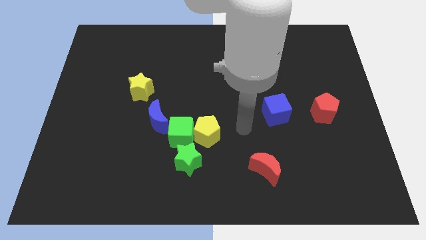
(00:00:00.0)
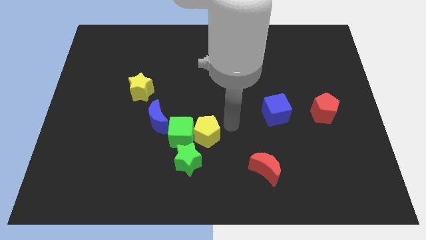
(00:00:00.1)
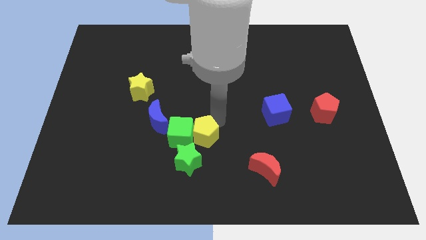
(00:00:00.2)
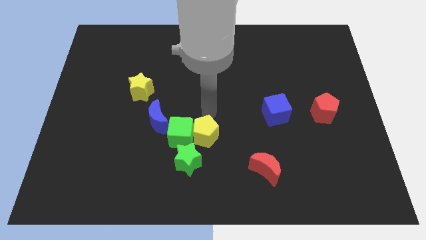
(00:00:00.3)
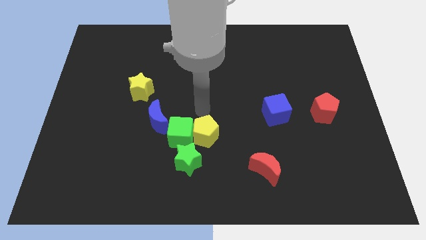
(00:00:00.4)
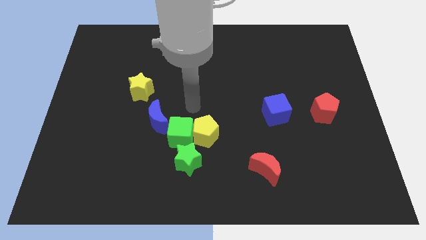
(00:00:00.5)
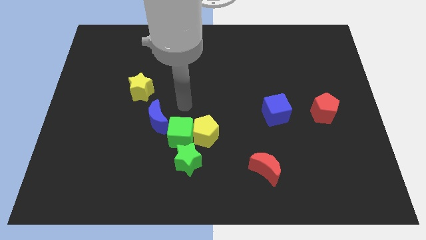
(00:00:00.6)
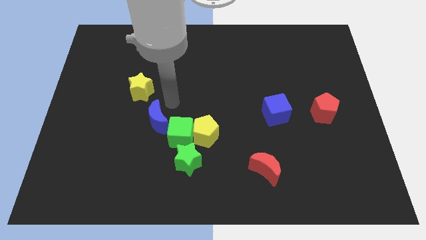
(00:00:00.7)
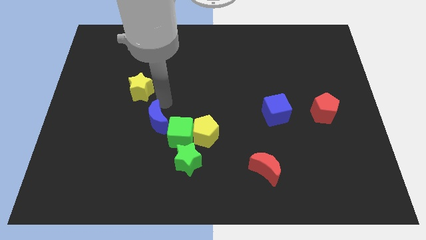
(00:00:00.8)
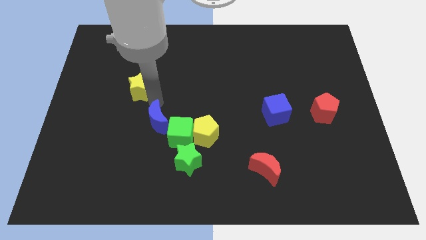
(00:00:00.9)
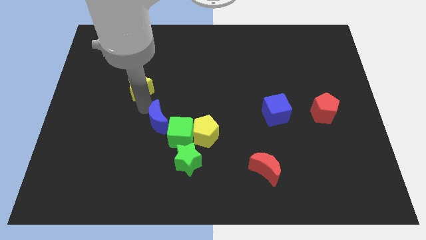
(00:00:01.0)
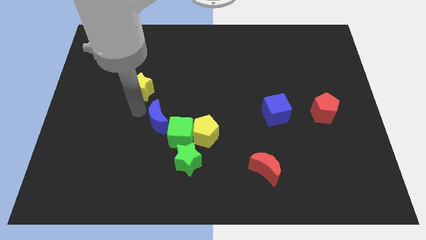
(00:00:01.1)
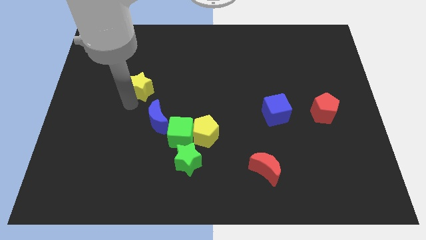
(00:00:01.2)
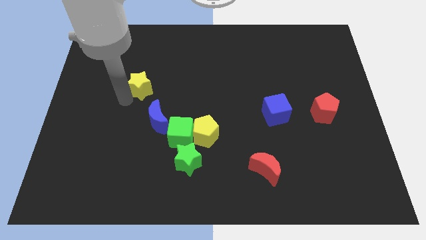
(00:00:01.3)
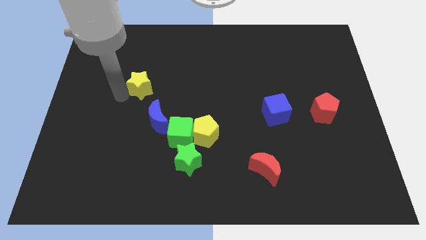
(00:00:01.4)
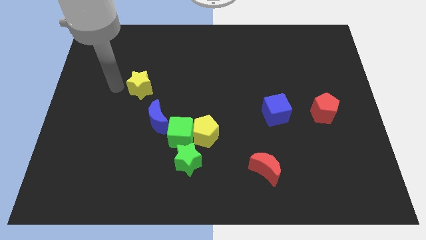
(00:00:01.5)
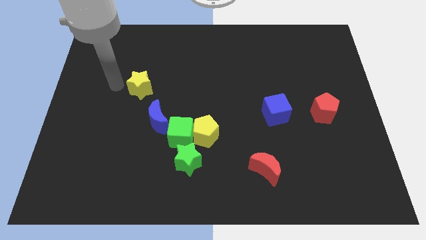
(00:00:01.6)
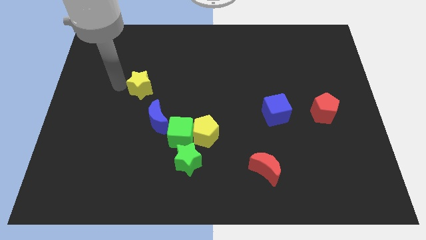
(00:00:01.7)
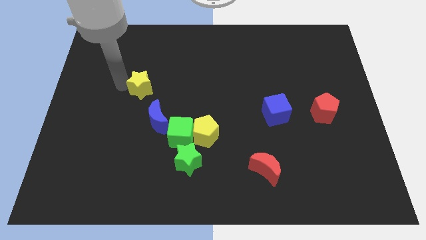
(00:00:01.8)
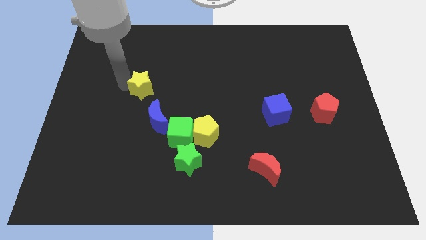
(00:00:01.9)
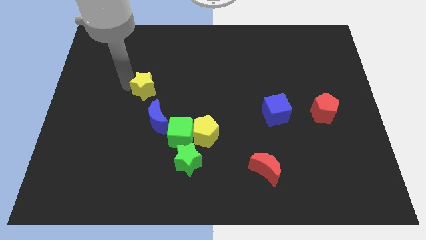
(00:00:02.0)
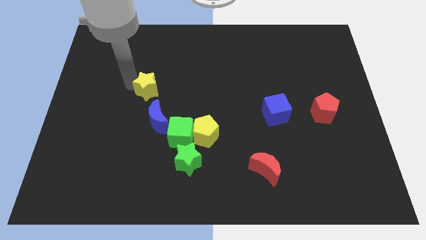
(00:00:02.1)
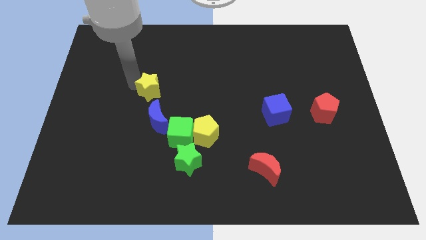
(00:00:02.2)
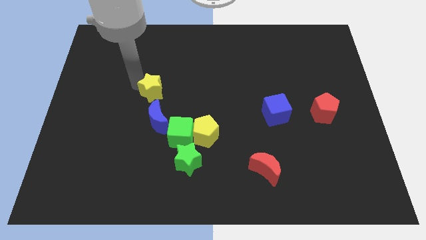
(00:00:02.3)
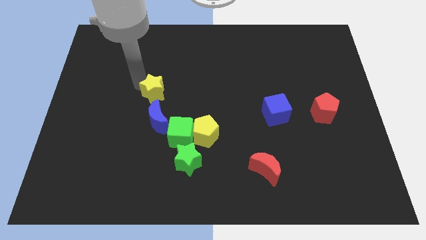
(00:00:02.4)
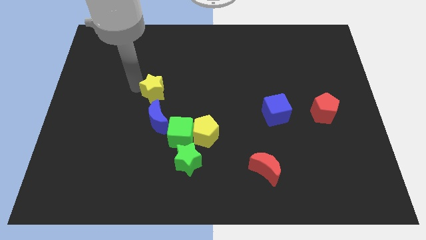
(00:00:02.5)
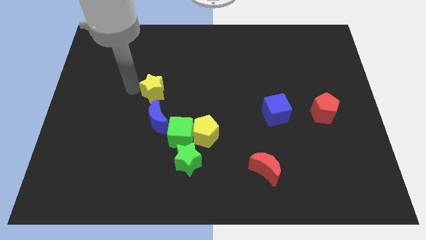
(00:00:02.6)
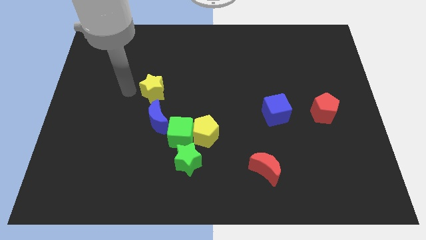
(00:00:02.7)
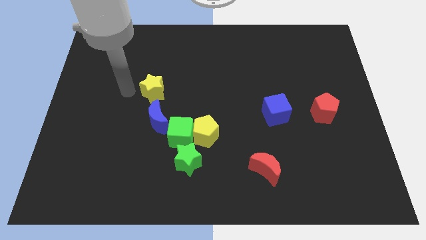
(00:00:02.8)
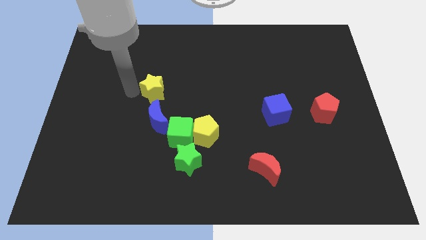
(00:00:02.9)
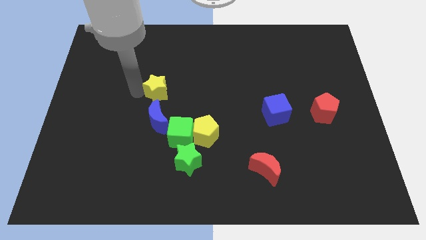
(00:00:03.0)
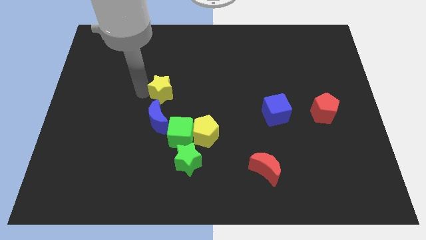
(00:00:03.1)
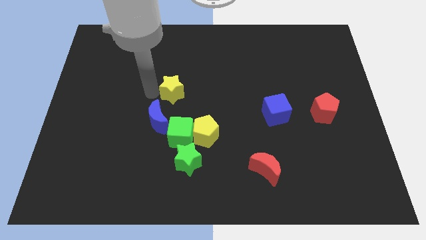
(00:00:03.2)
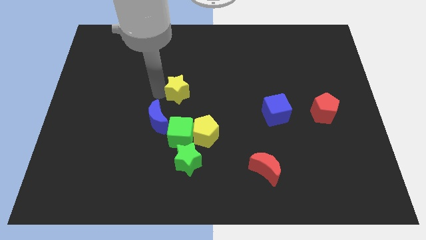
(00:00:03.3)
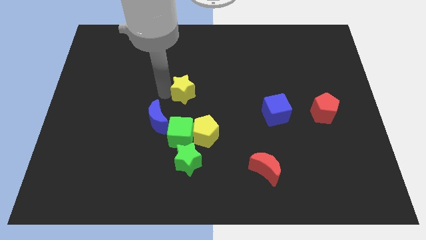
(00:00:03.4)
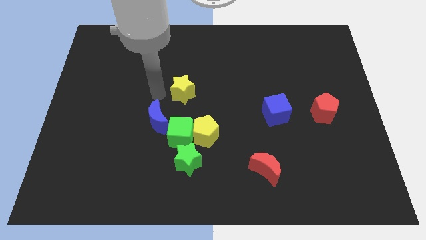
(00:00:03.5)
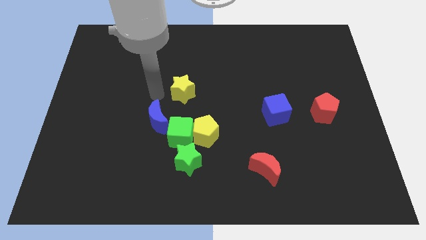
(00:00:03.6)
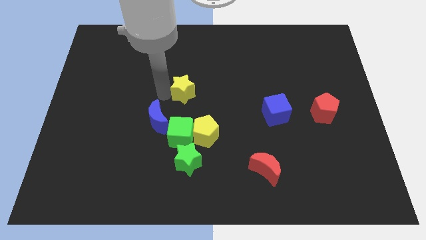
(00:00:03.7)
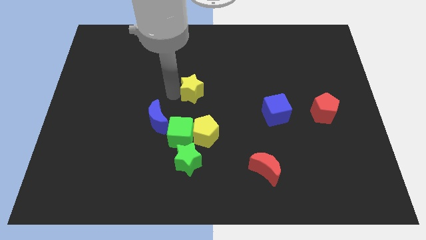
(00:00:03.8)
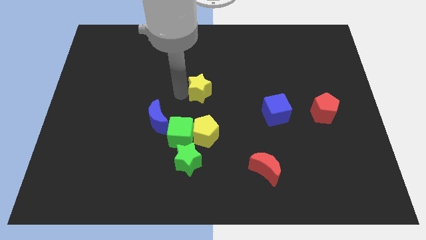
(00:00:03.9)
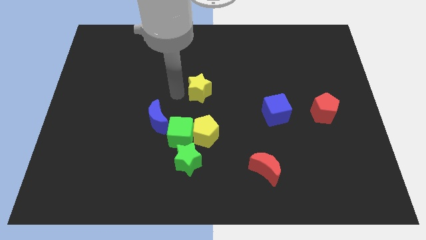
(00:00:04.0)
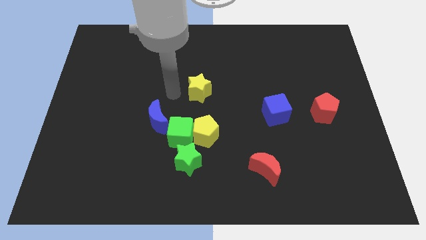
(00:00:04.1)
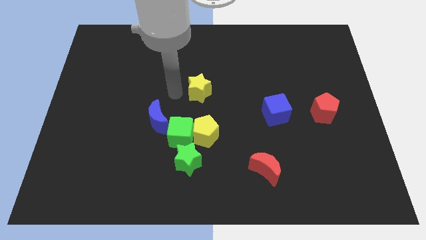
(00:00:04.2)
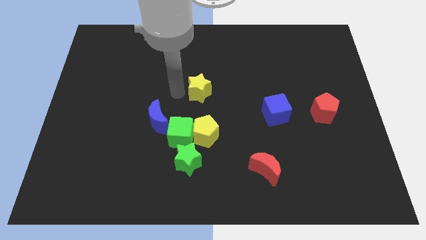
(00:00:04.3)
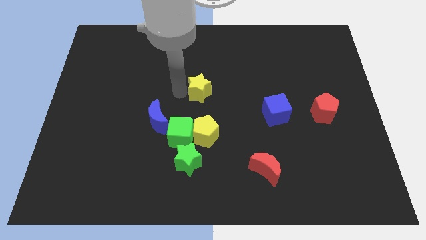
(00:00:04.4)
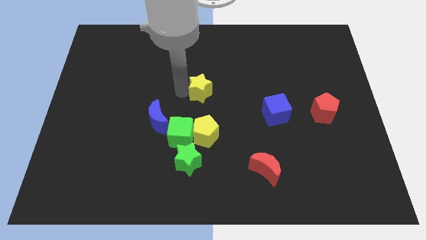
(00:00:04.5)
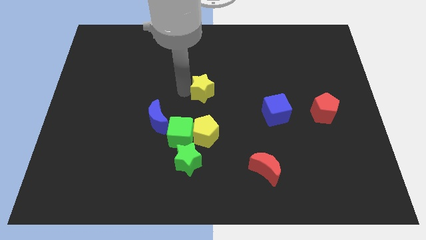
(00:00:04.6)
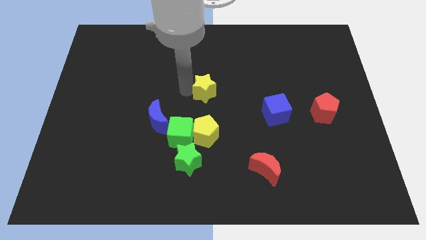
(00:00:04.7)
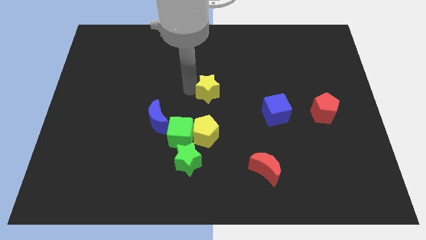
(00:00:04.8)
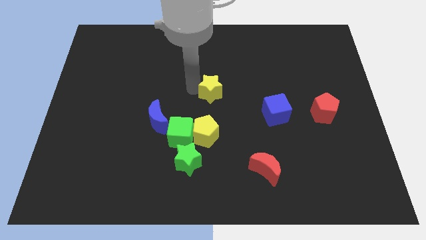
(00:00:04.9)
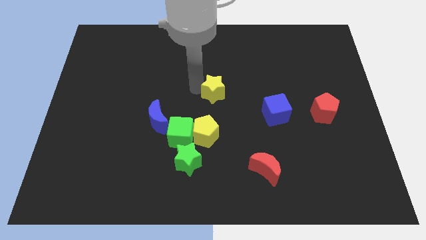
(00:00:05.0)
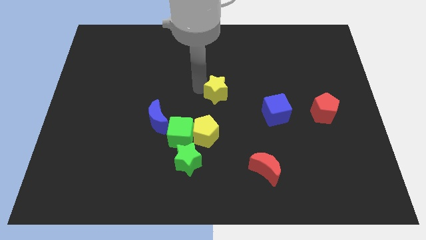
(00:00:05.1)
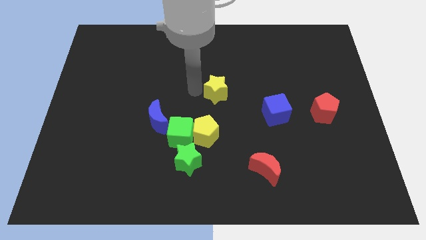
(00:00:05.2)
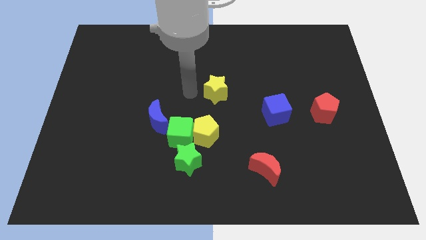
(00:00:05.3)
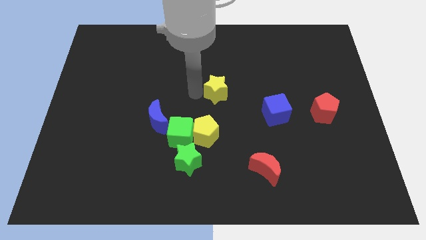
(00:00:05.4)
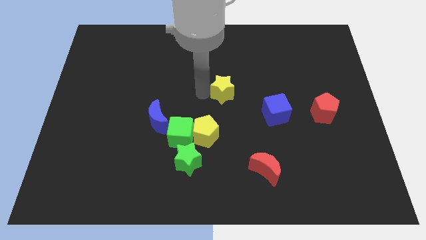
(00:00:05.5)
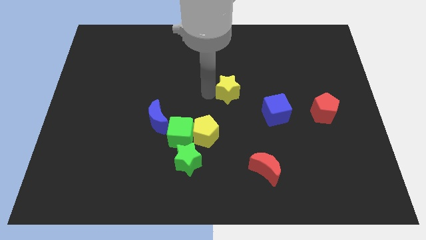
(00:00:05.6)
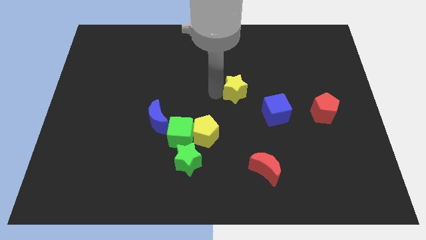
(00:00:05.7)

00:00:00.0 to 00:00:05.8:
put the yellow star to the top left of the blue cube

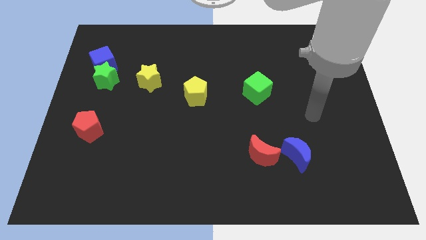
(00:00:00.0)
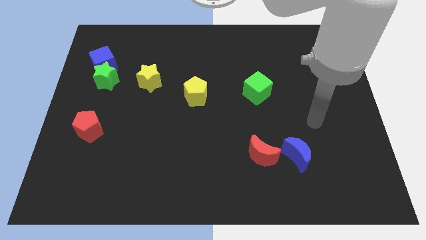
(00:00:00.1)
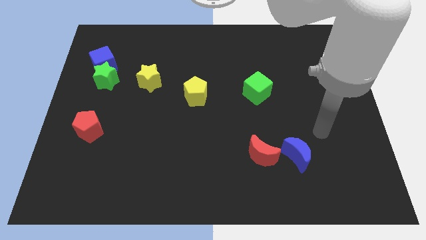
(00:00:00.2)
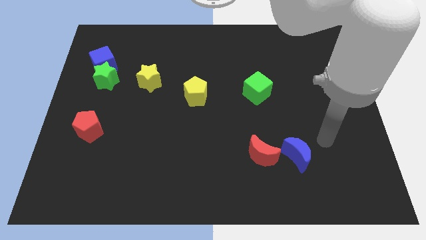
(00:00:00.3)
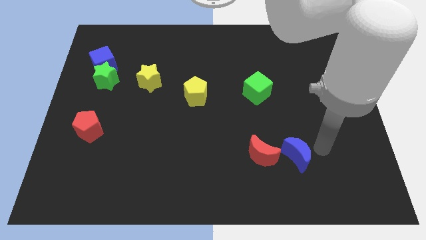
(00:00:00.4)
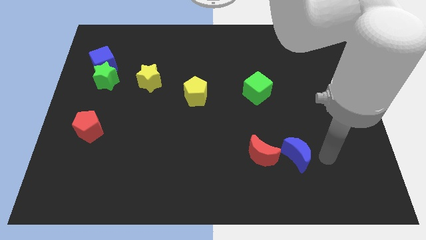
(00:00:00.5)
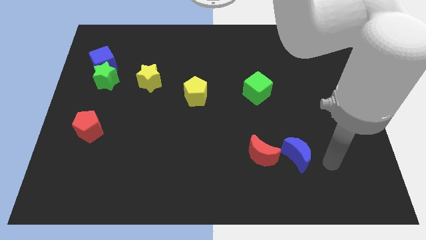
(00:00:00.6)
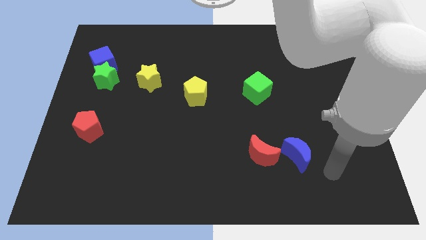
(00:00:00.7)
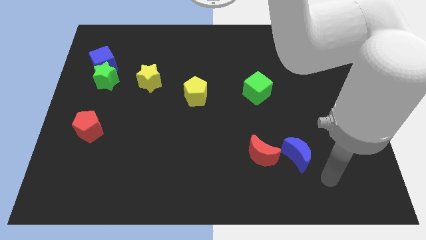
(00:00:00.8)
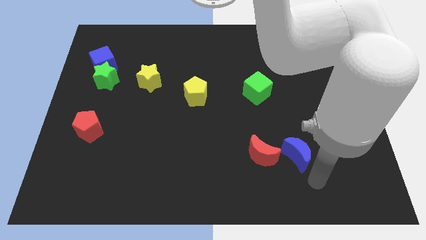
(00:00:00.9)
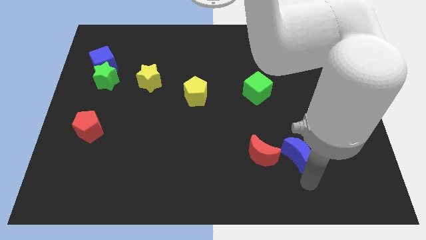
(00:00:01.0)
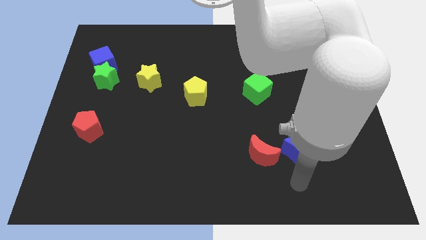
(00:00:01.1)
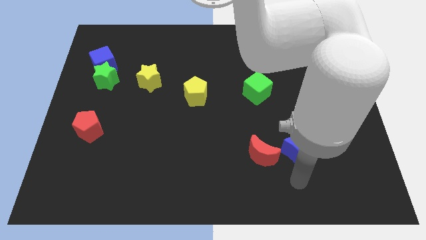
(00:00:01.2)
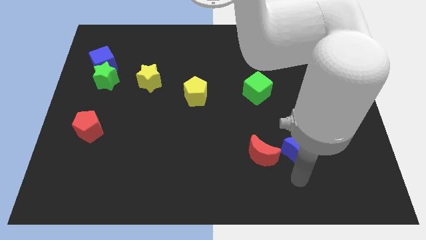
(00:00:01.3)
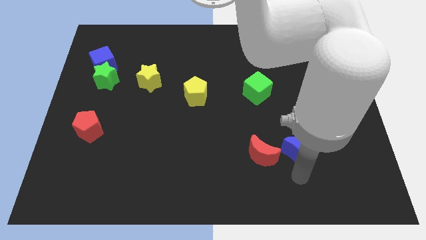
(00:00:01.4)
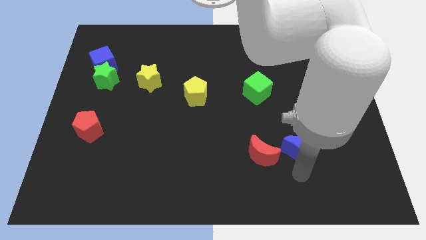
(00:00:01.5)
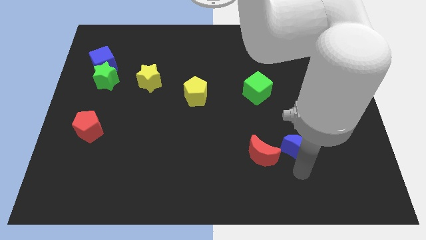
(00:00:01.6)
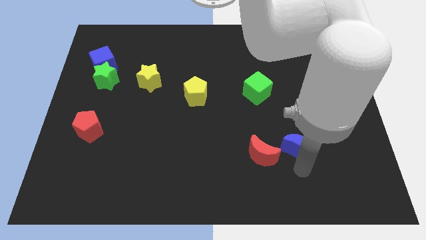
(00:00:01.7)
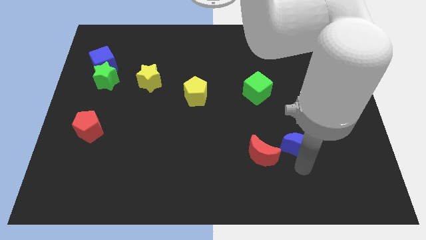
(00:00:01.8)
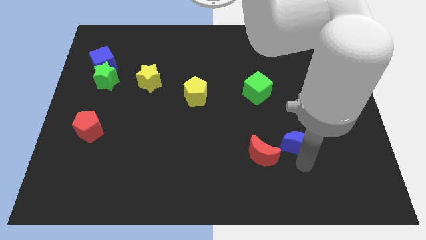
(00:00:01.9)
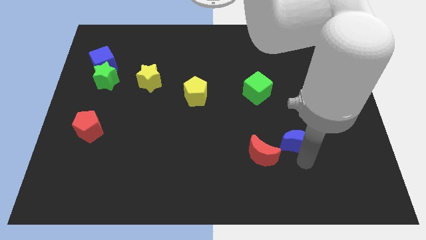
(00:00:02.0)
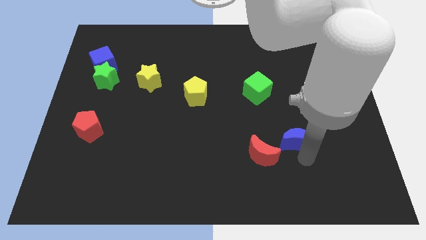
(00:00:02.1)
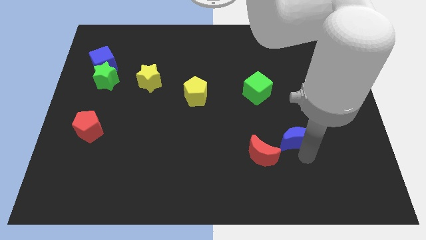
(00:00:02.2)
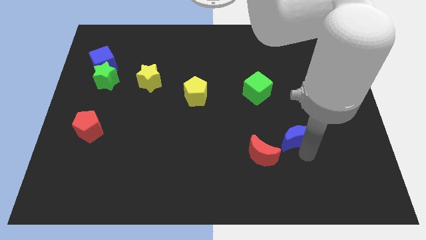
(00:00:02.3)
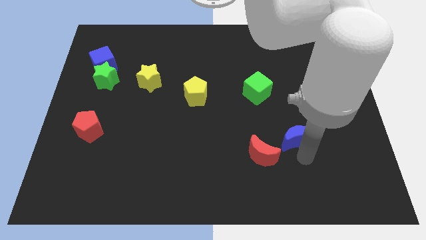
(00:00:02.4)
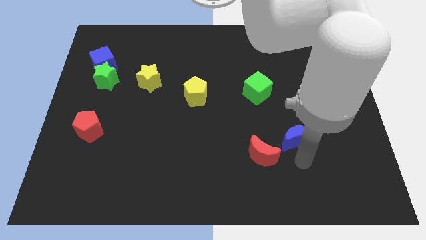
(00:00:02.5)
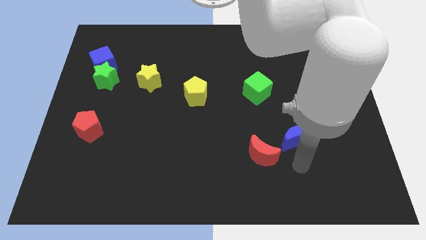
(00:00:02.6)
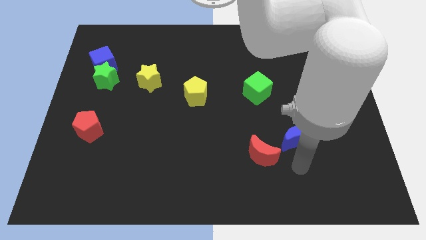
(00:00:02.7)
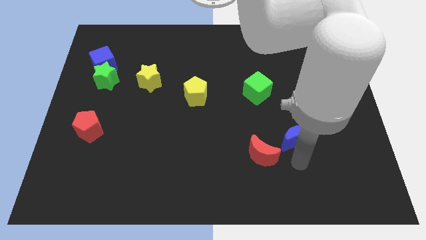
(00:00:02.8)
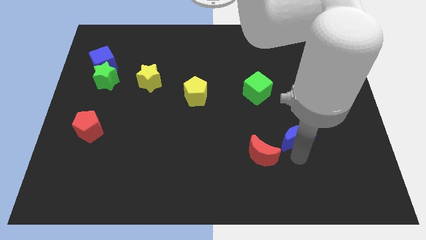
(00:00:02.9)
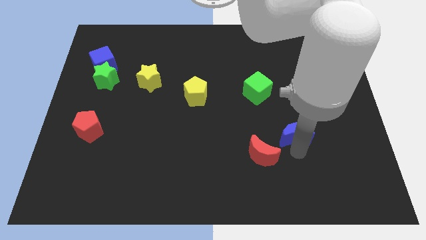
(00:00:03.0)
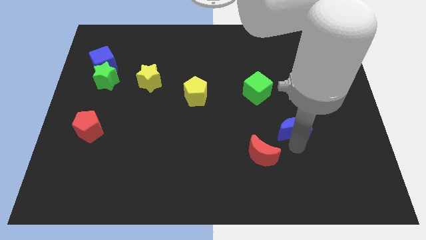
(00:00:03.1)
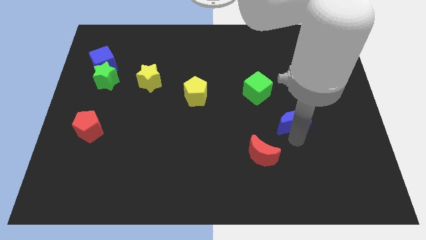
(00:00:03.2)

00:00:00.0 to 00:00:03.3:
move the blue moon diagonally down and to the right of the green cube
